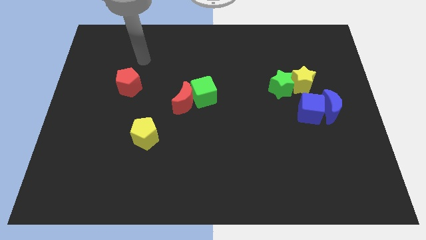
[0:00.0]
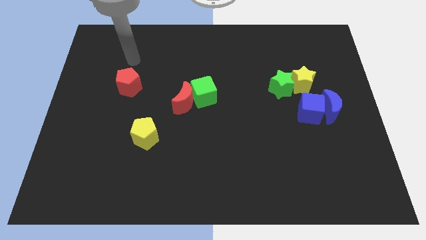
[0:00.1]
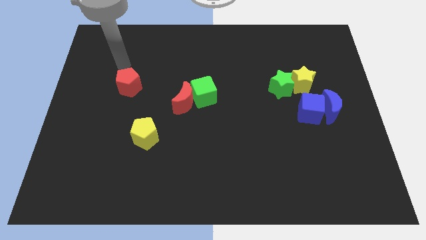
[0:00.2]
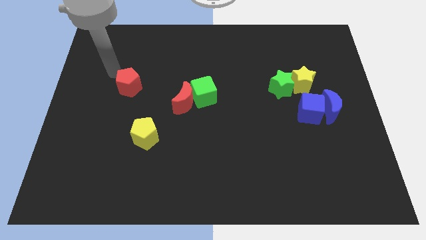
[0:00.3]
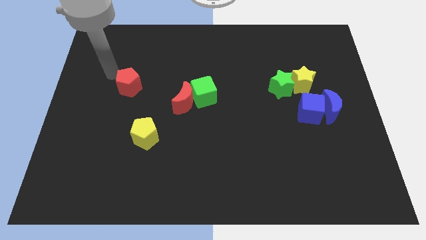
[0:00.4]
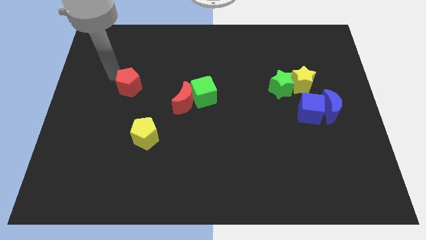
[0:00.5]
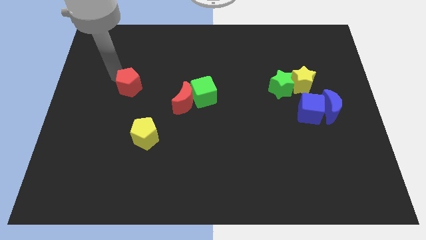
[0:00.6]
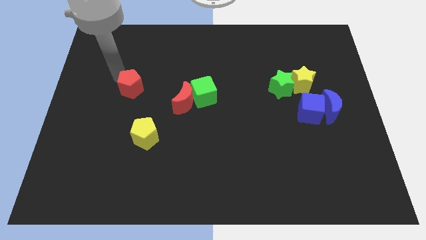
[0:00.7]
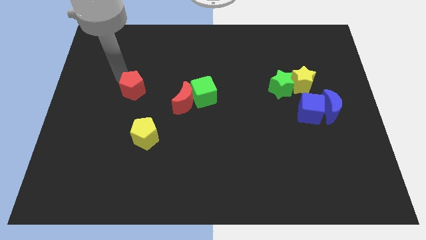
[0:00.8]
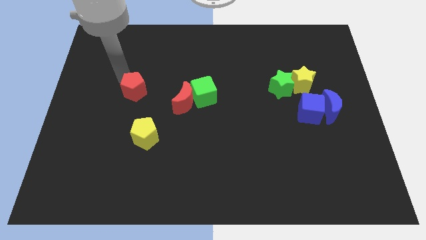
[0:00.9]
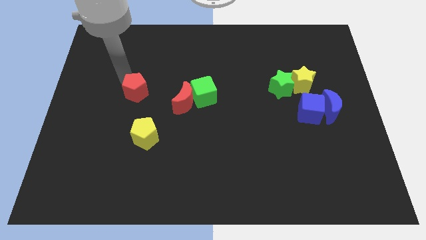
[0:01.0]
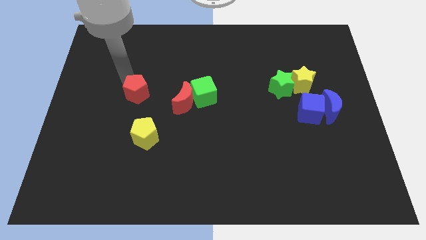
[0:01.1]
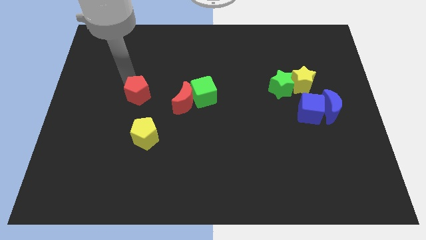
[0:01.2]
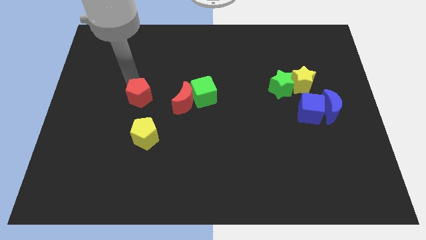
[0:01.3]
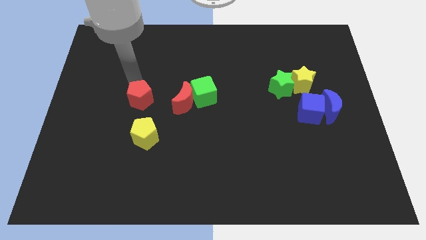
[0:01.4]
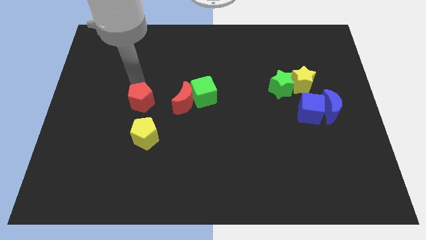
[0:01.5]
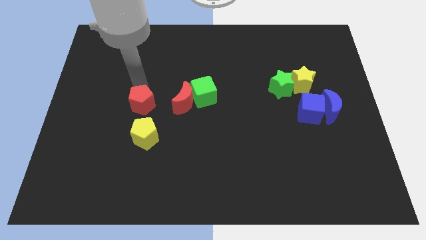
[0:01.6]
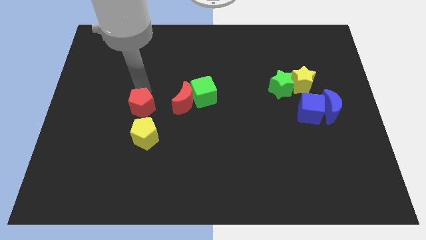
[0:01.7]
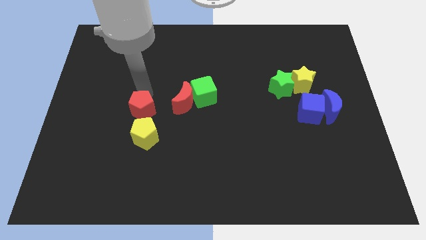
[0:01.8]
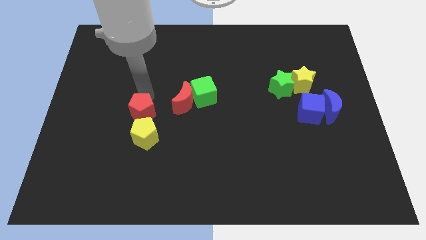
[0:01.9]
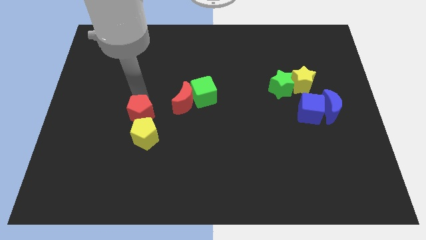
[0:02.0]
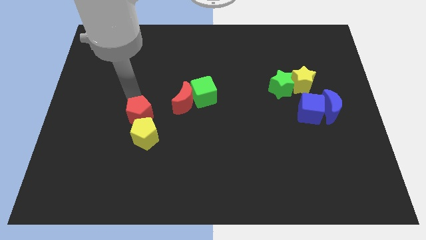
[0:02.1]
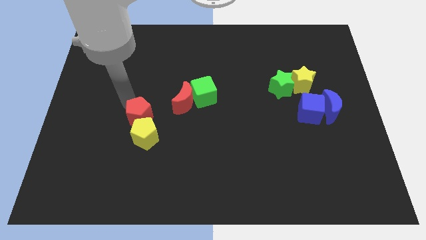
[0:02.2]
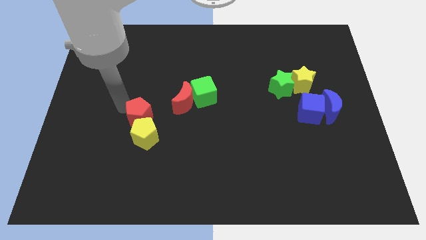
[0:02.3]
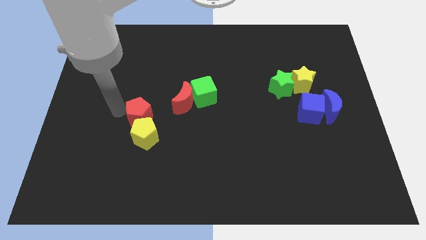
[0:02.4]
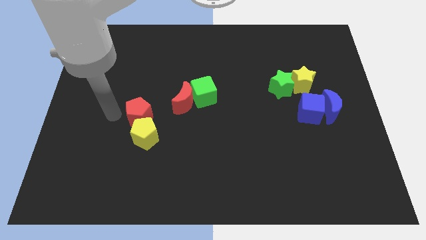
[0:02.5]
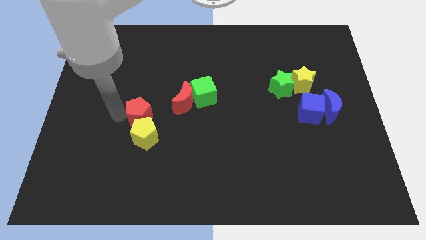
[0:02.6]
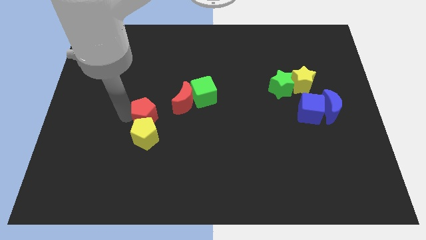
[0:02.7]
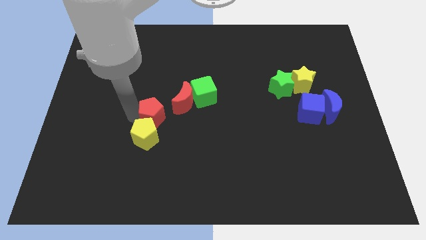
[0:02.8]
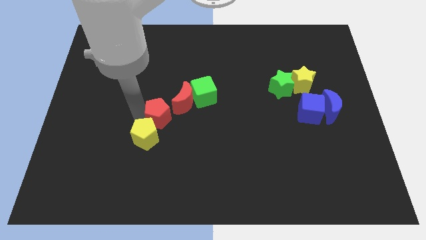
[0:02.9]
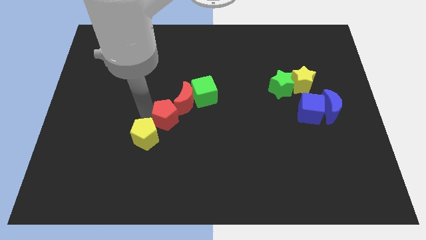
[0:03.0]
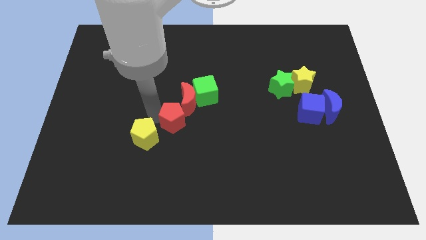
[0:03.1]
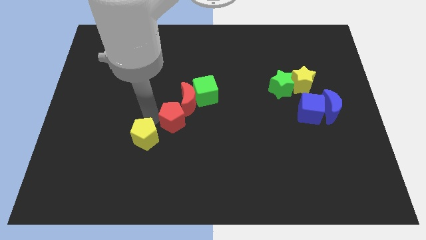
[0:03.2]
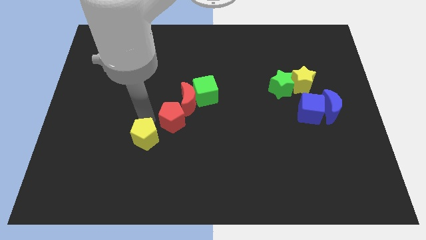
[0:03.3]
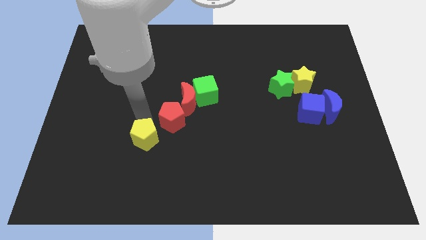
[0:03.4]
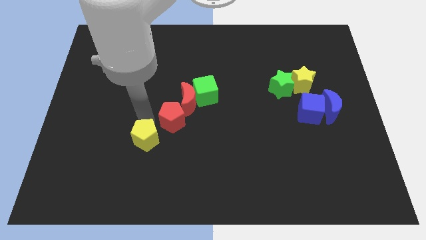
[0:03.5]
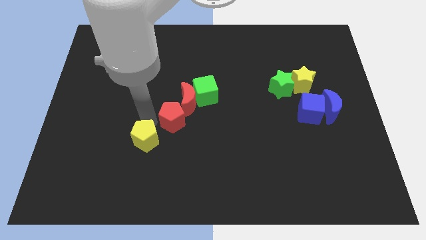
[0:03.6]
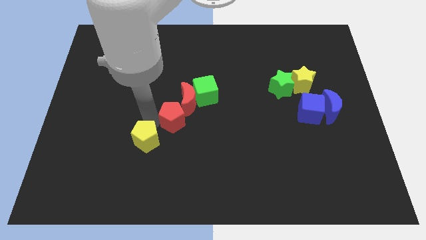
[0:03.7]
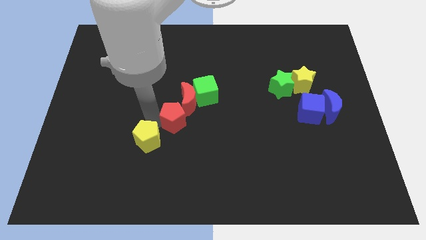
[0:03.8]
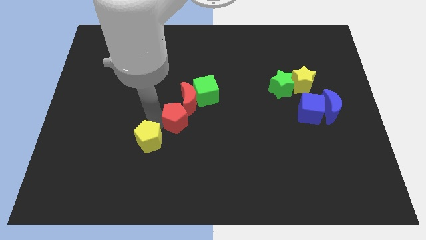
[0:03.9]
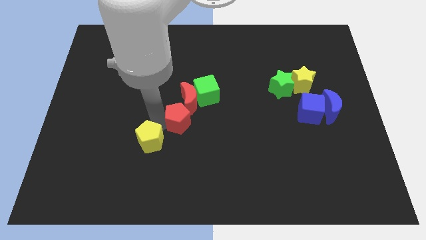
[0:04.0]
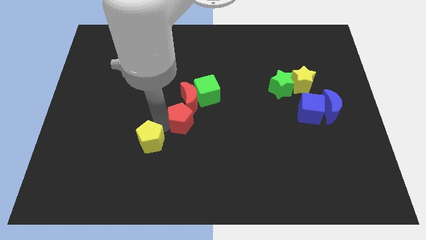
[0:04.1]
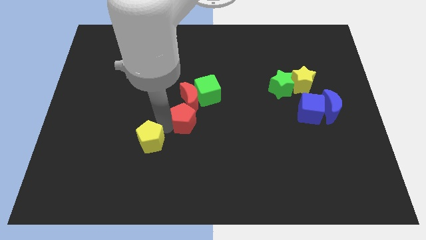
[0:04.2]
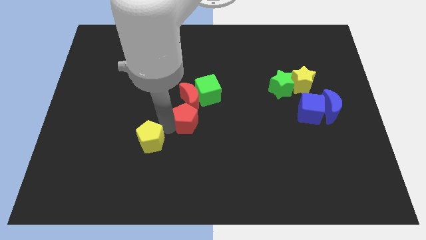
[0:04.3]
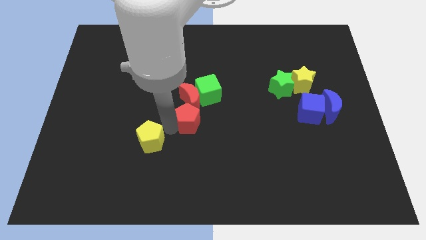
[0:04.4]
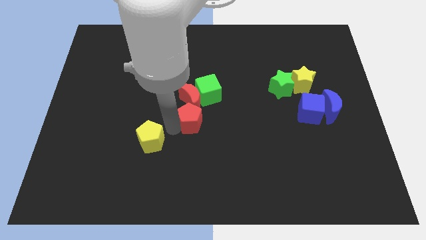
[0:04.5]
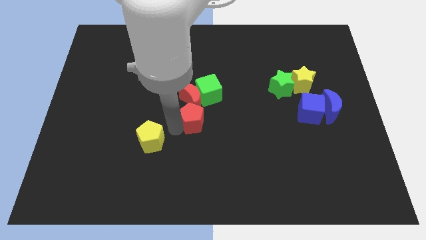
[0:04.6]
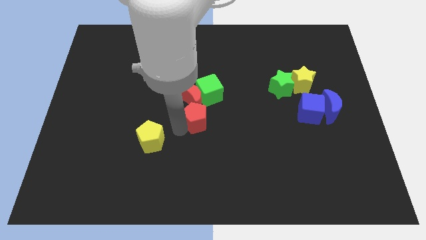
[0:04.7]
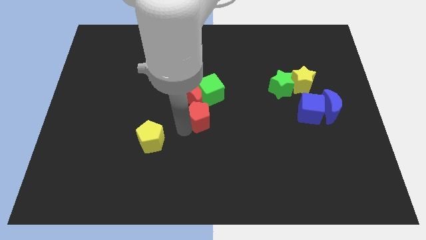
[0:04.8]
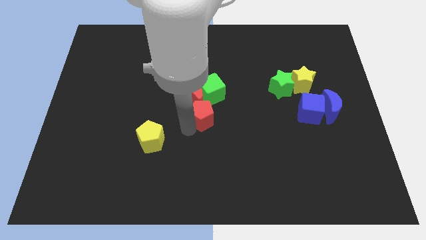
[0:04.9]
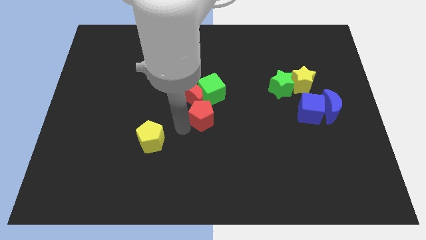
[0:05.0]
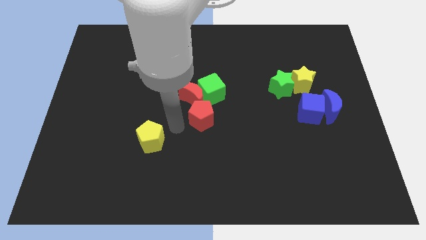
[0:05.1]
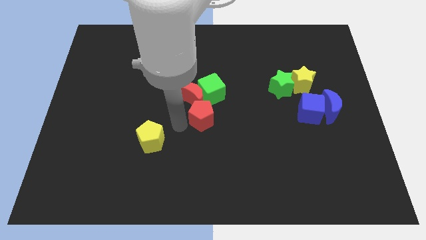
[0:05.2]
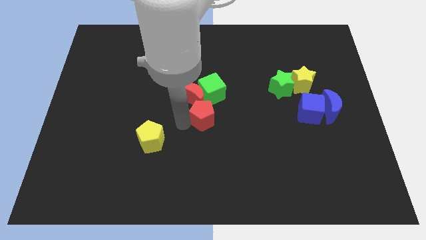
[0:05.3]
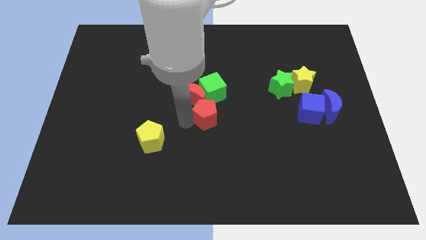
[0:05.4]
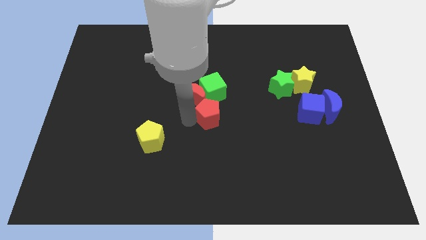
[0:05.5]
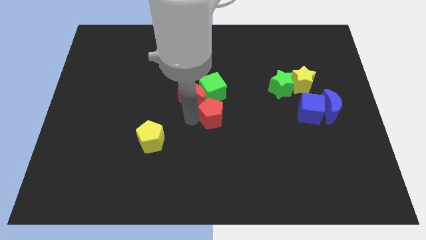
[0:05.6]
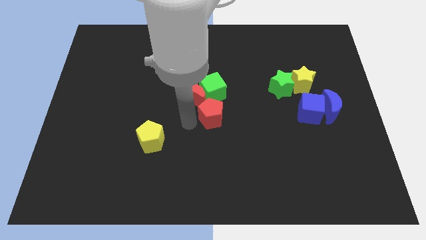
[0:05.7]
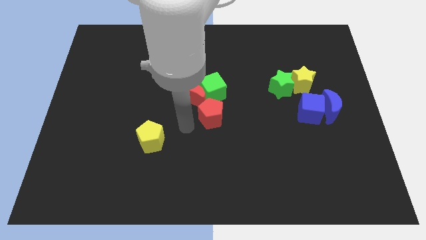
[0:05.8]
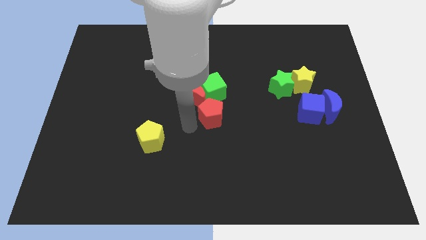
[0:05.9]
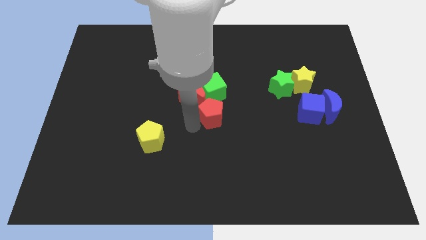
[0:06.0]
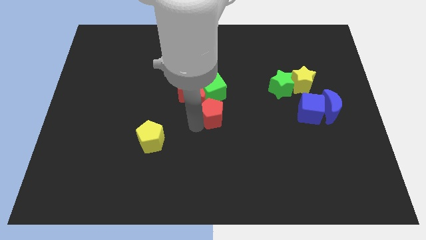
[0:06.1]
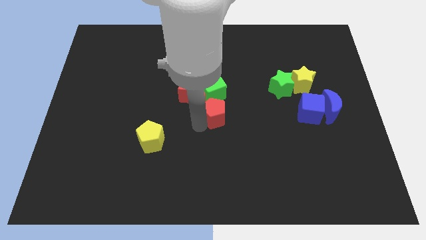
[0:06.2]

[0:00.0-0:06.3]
put the red pentagon to the bottom right of the green cube
